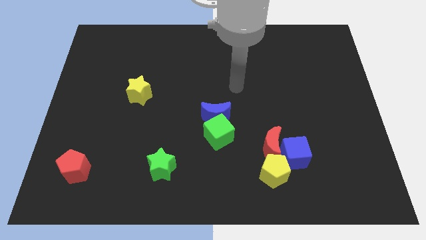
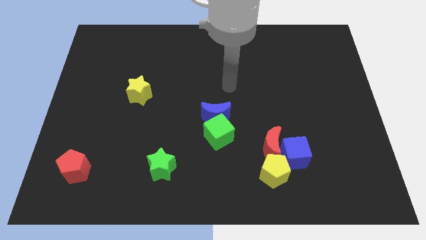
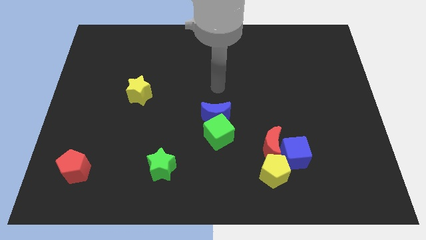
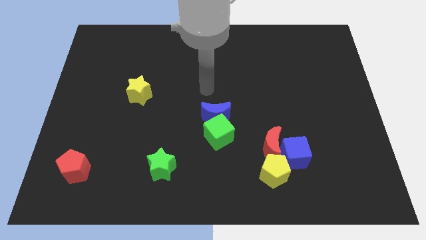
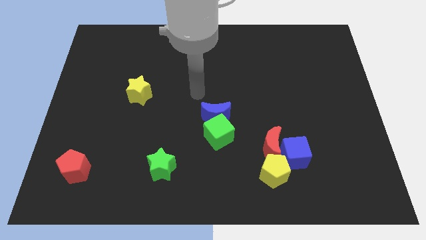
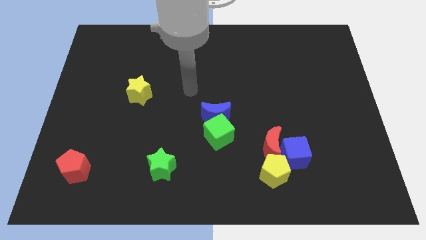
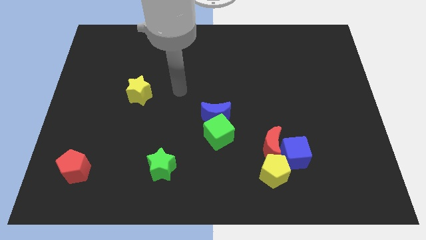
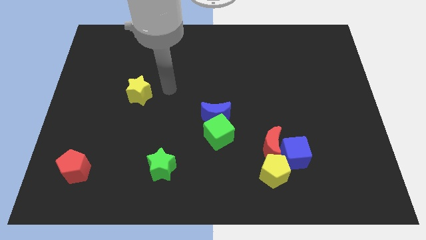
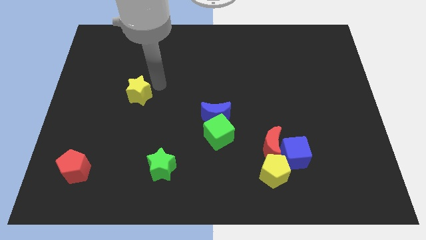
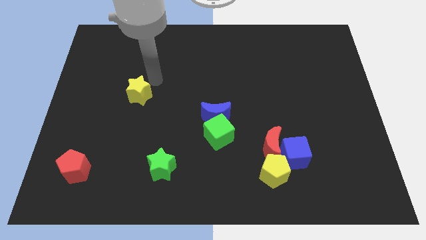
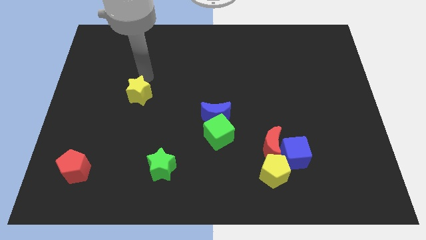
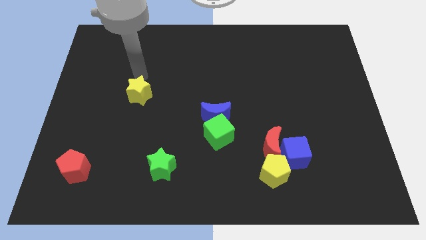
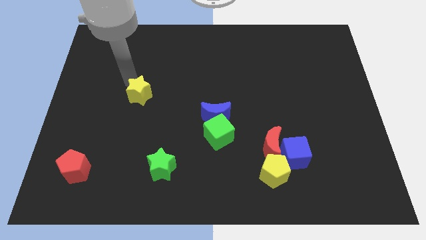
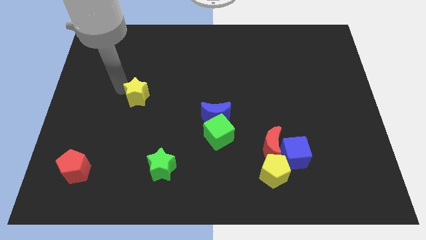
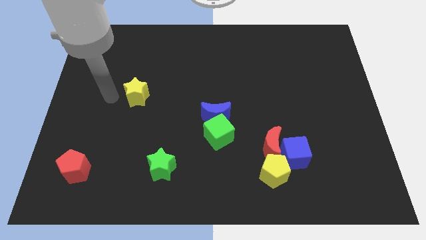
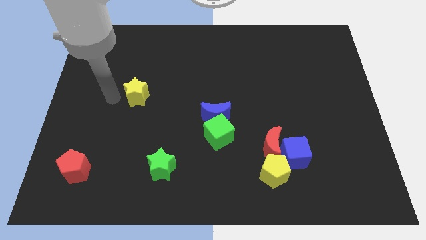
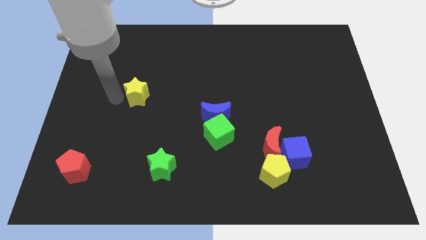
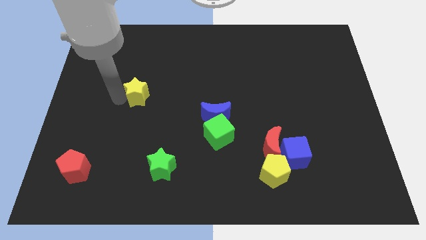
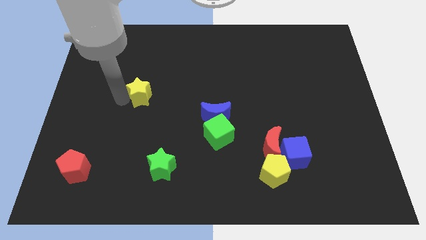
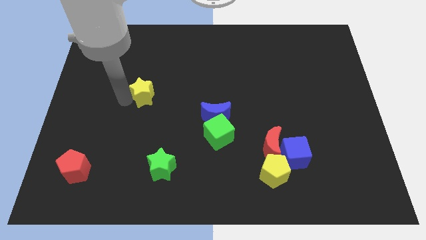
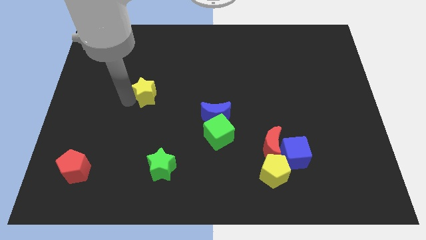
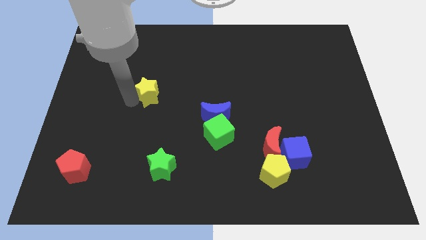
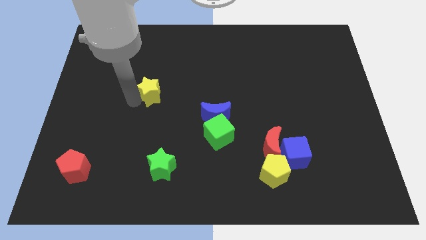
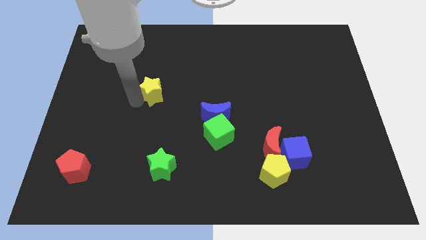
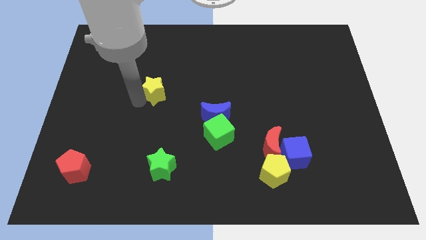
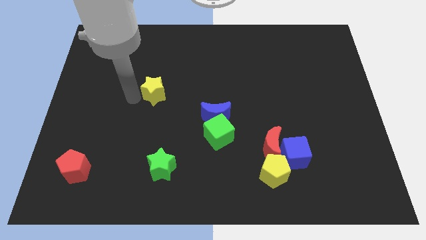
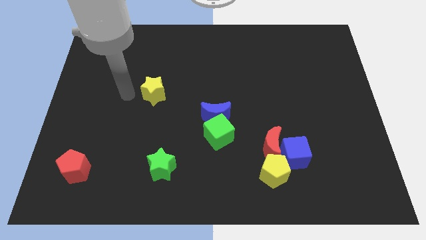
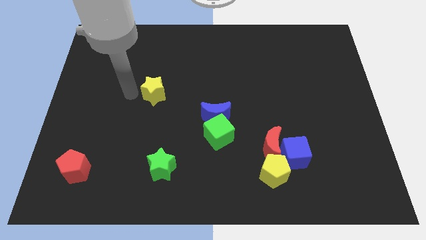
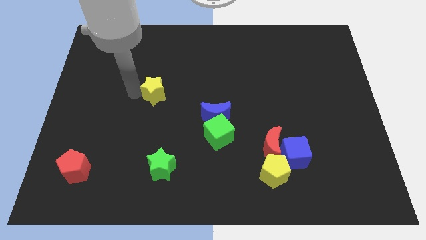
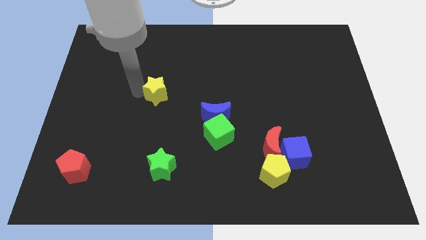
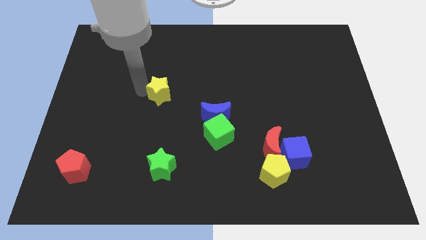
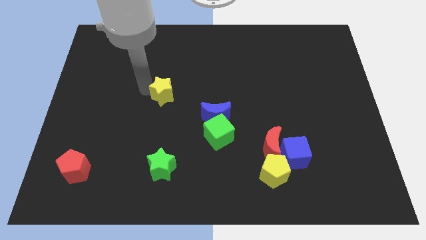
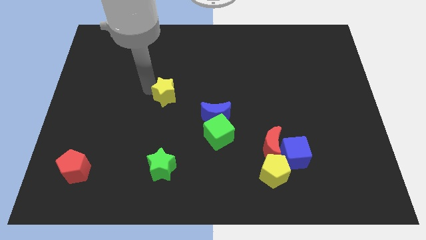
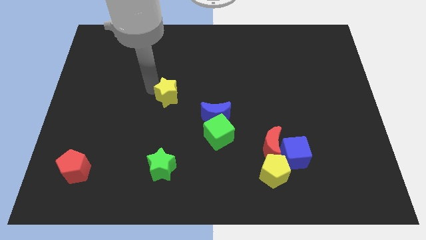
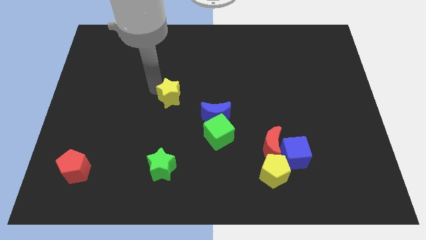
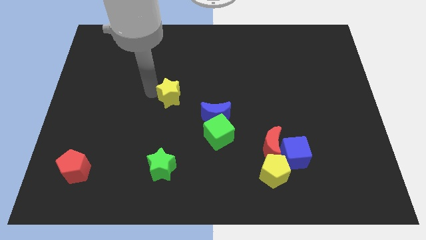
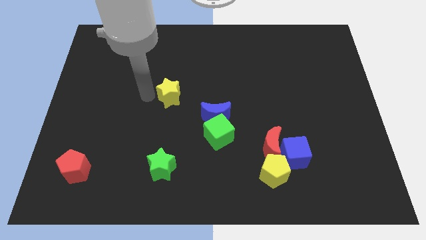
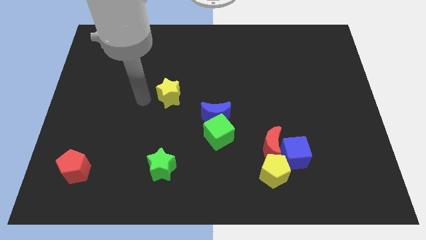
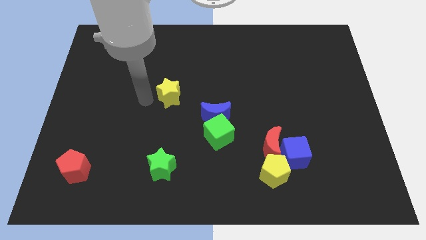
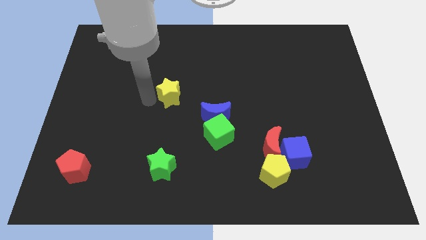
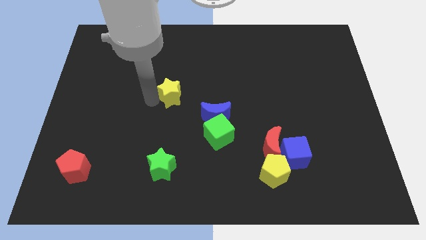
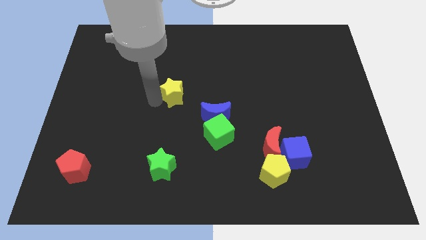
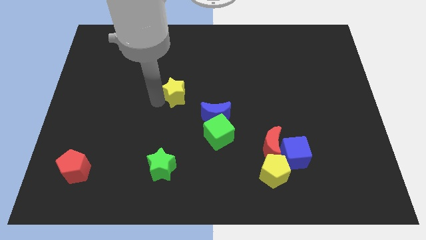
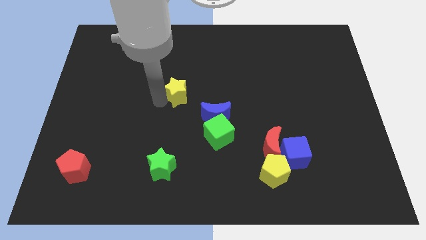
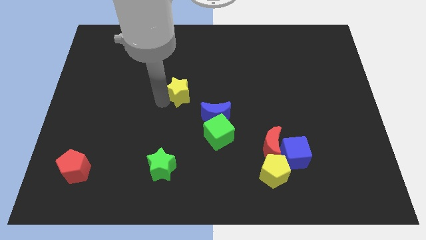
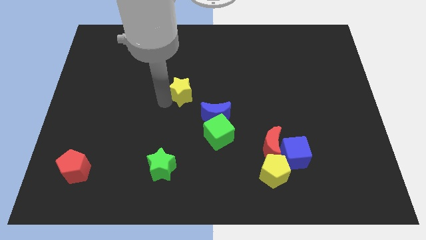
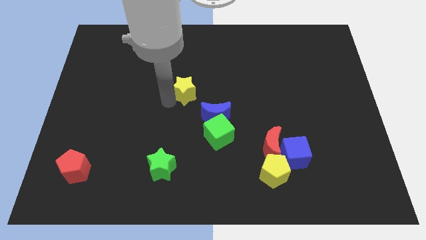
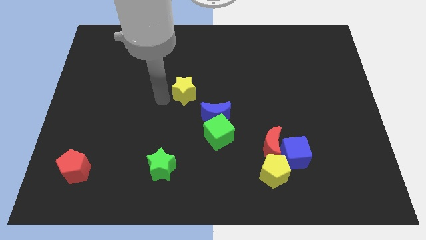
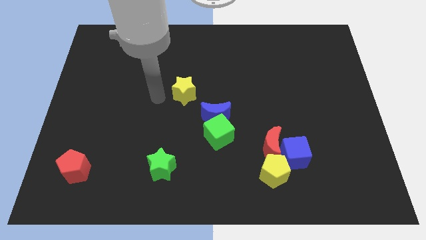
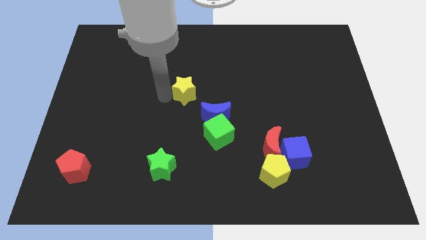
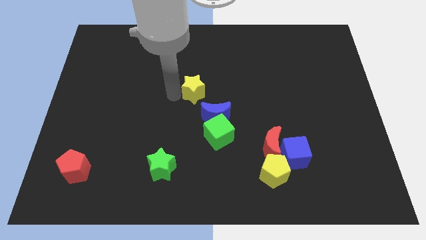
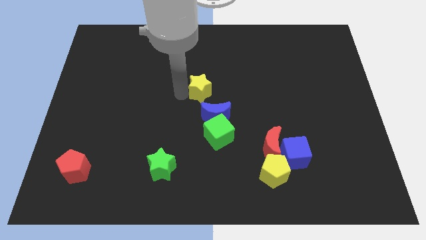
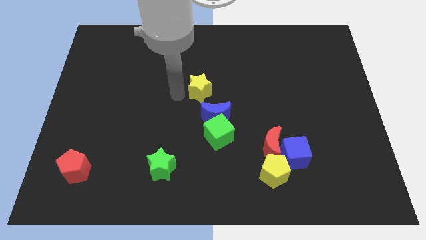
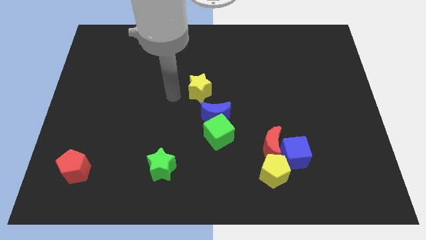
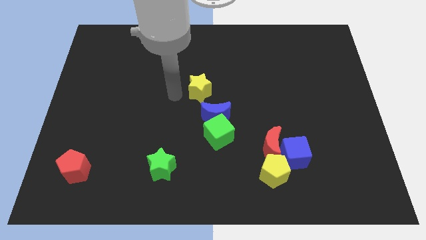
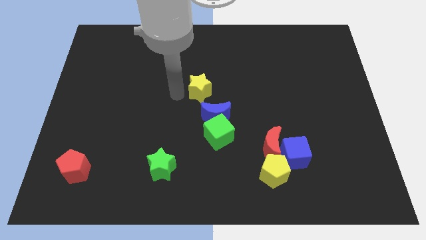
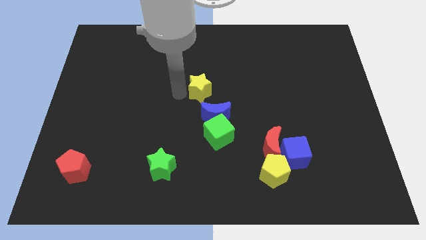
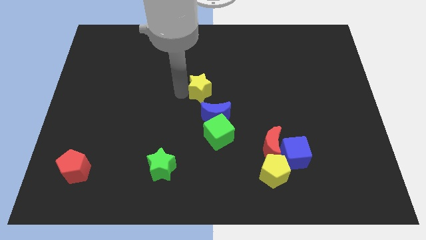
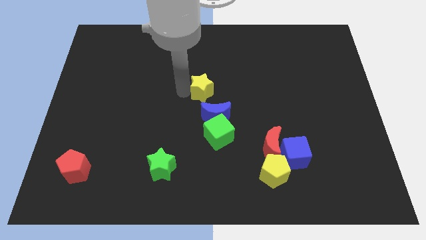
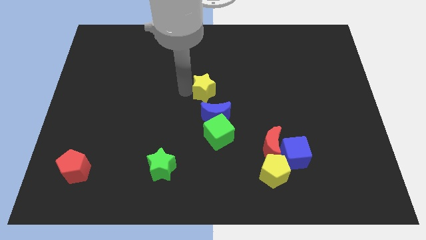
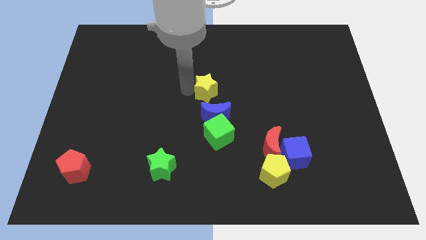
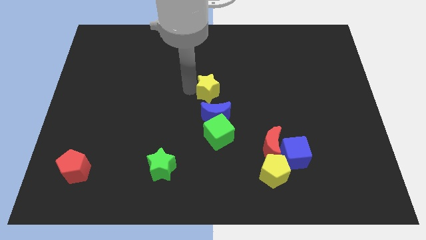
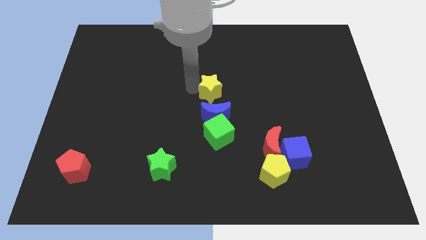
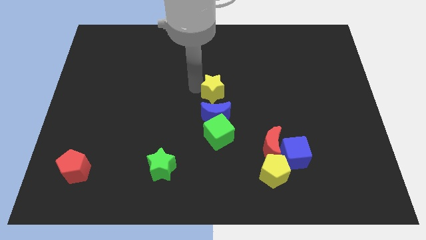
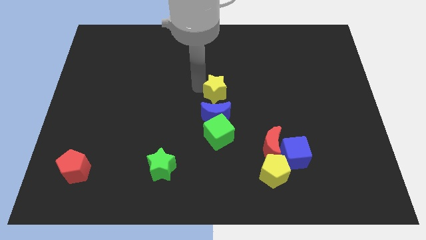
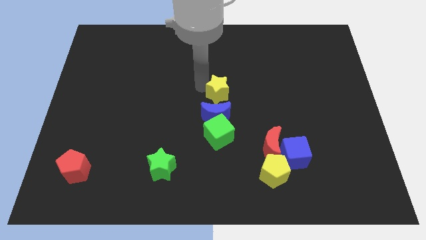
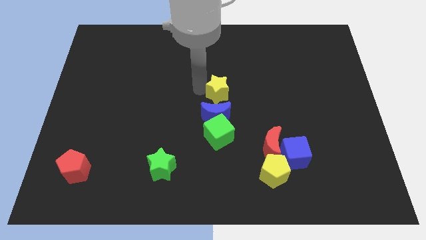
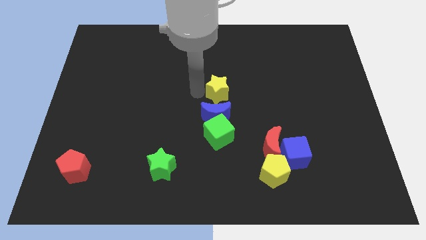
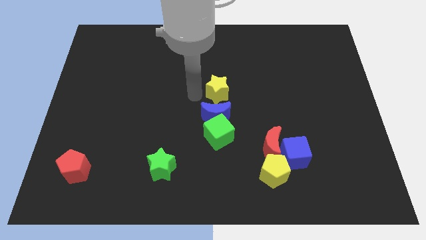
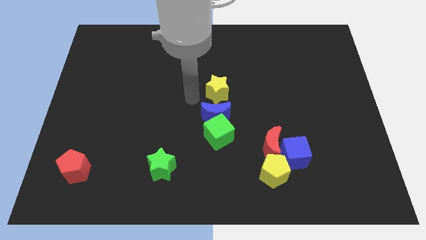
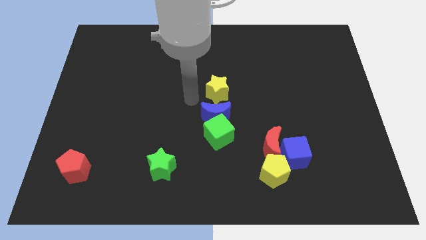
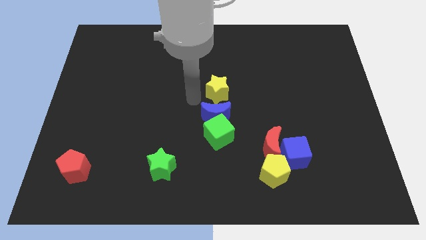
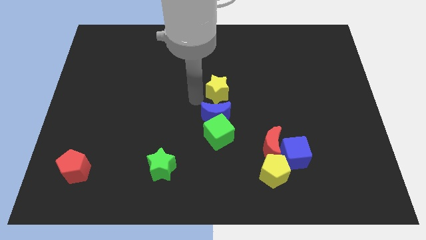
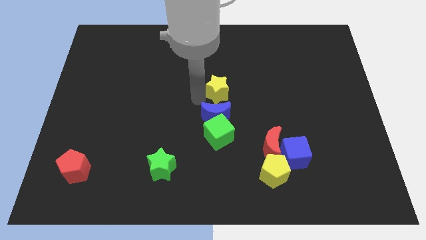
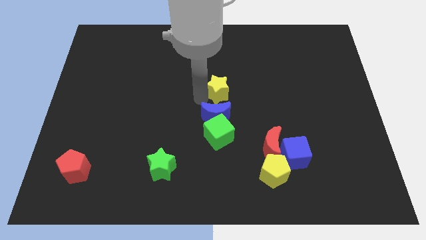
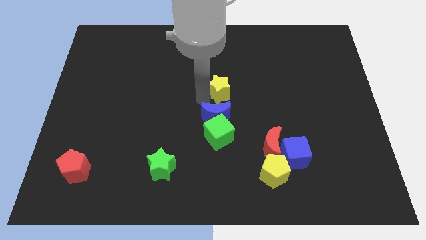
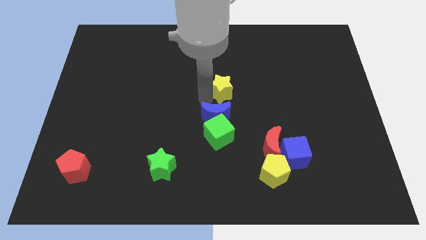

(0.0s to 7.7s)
move the yellow star right

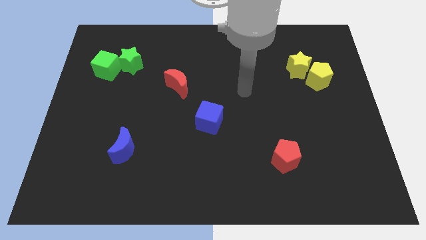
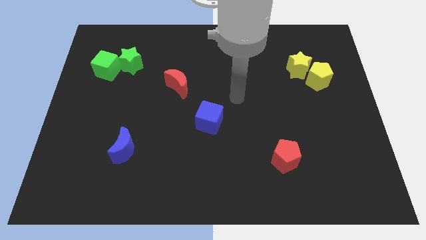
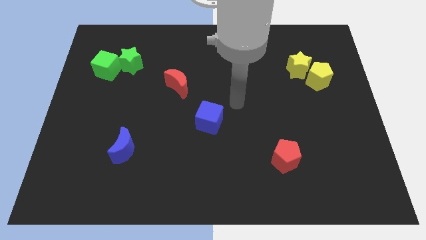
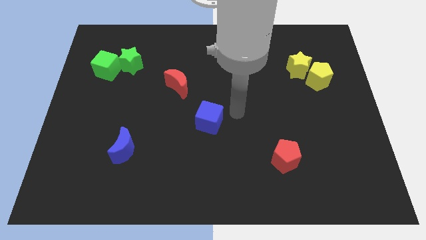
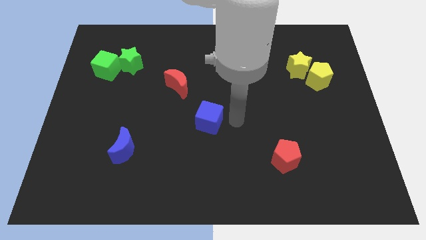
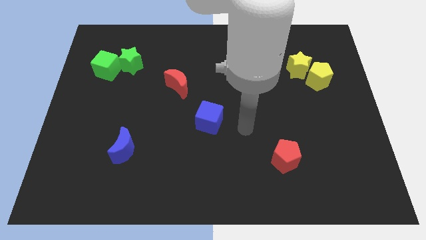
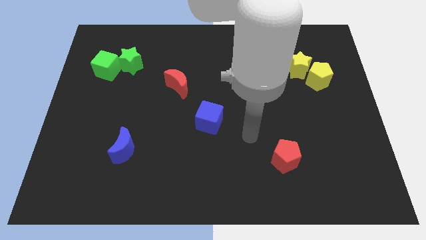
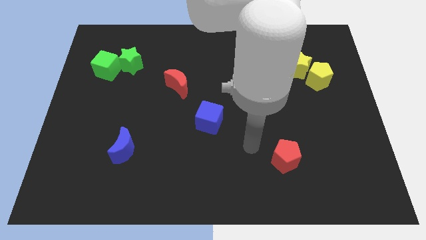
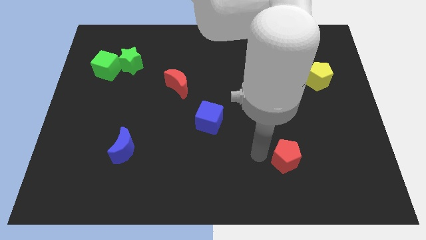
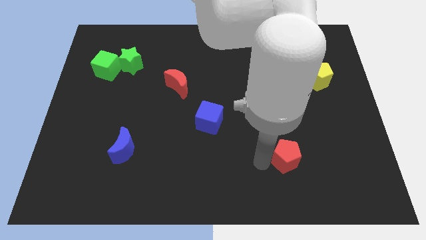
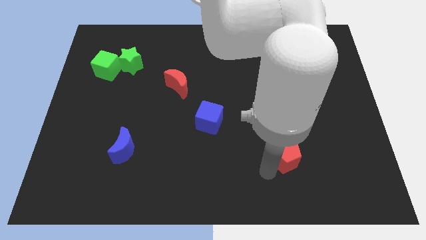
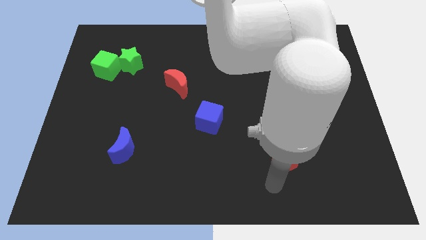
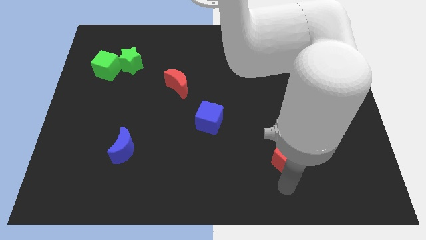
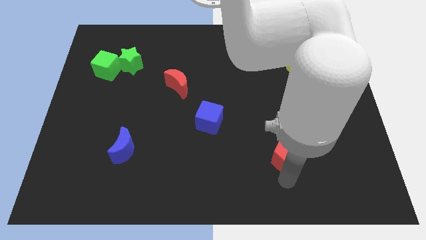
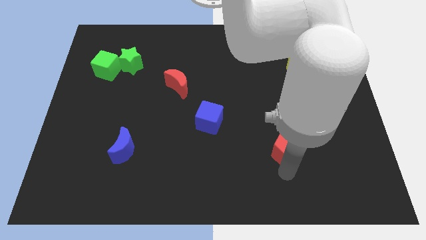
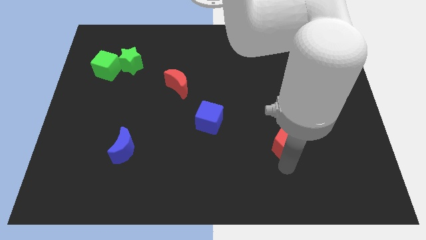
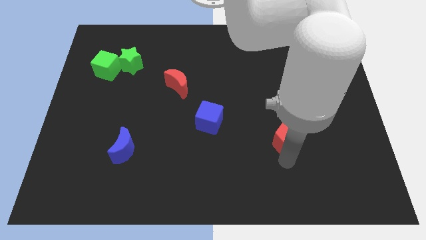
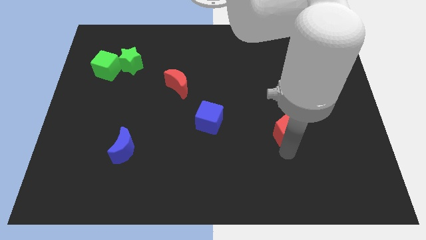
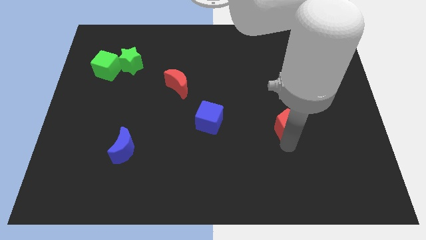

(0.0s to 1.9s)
slide the red pentagon up slightly
